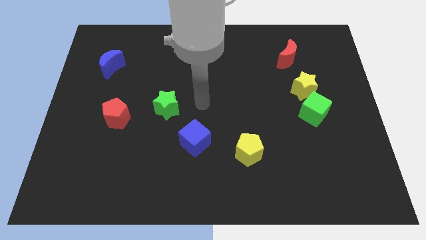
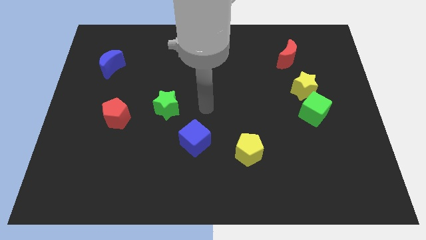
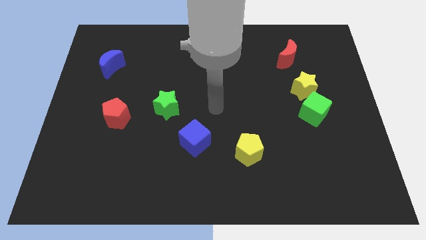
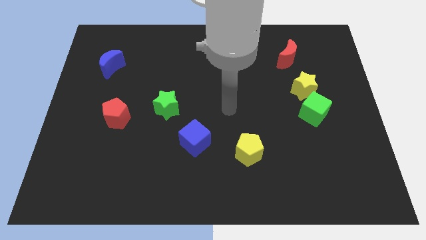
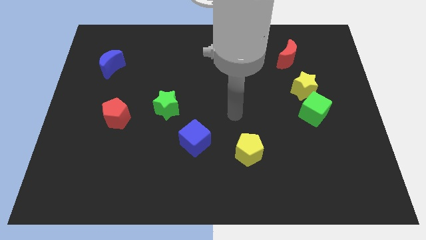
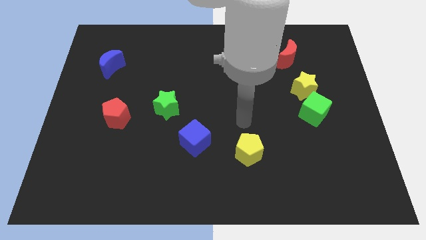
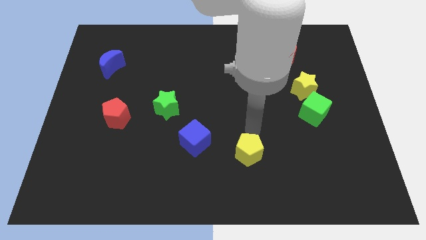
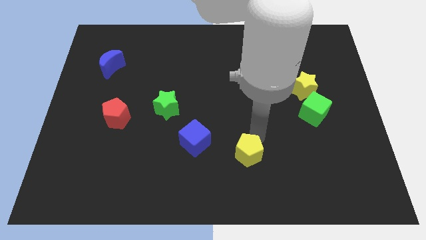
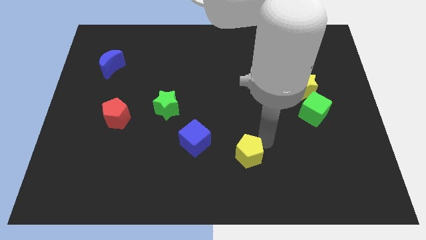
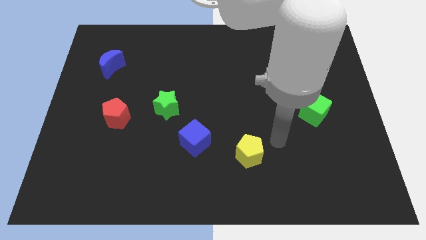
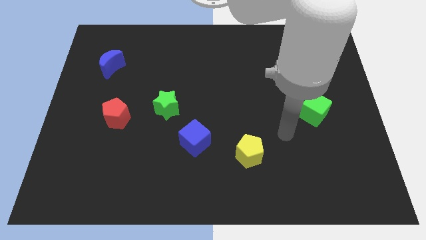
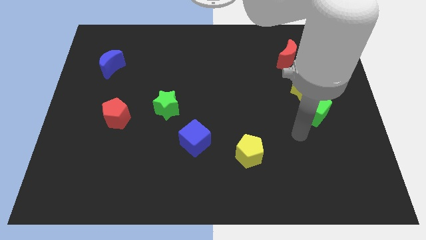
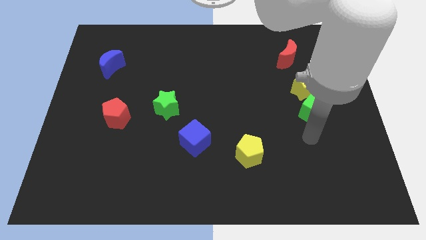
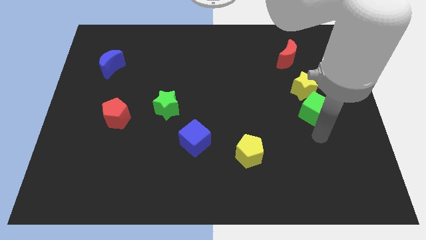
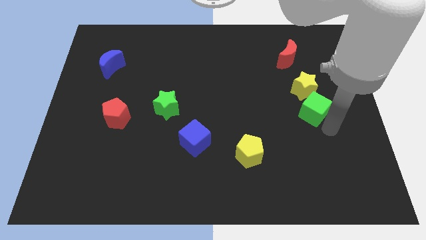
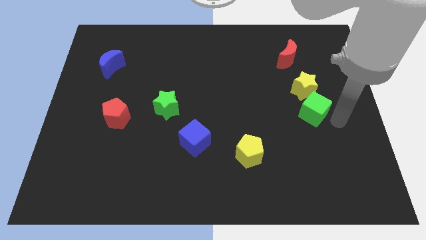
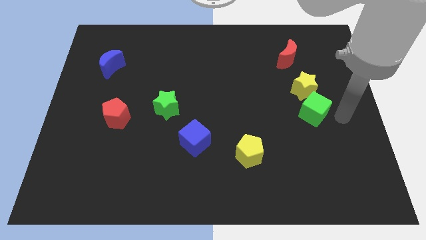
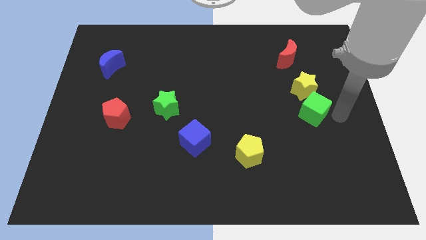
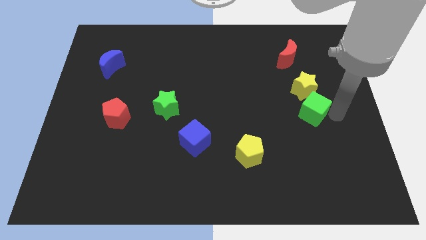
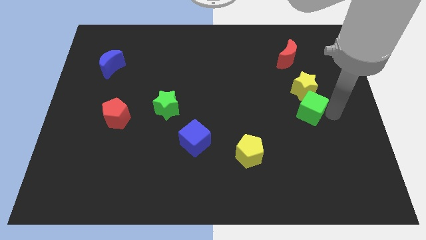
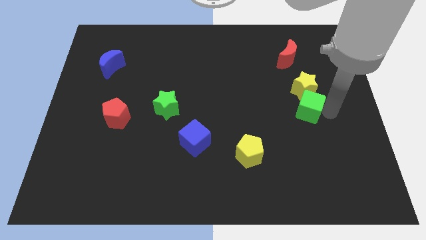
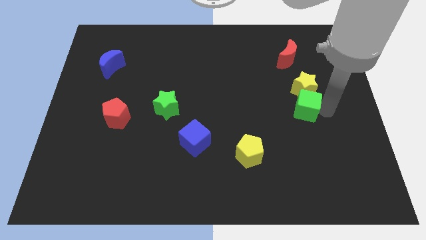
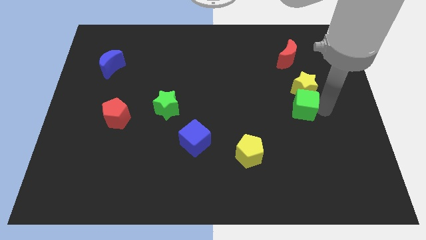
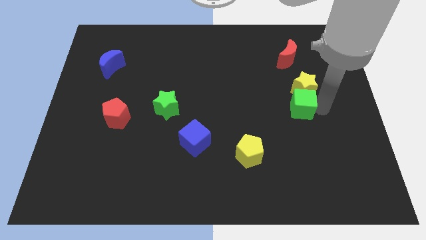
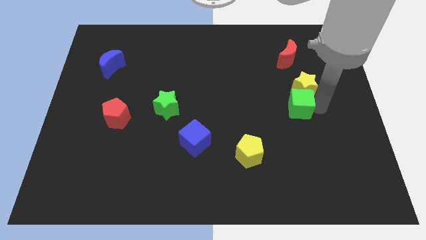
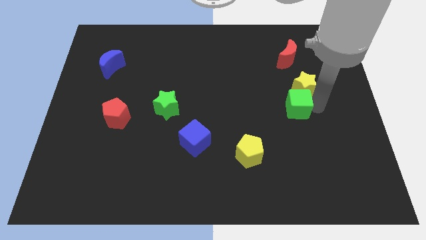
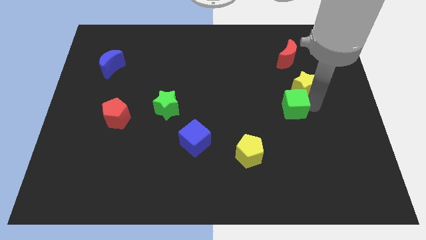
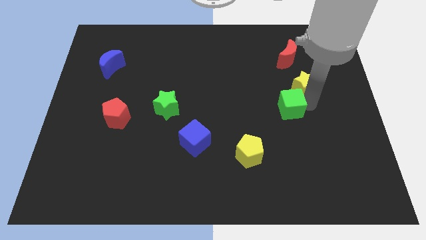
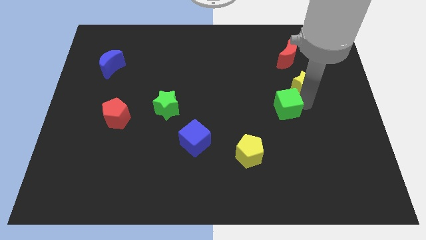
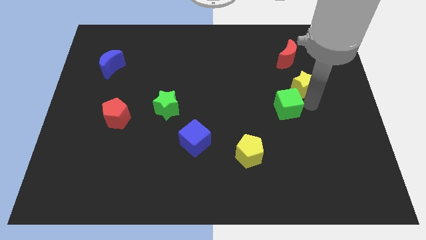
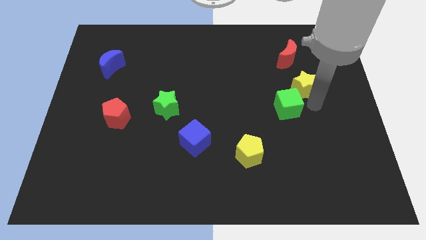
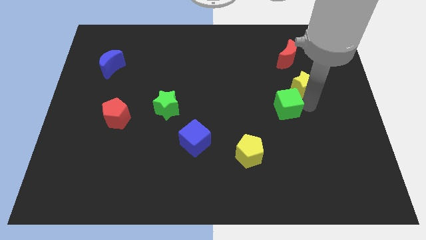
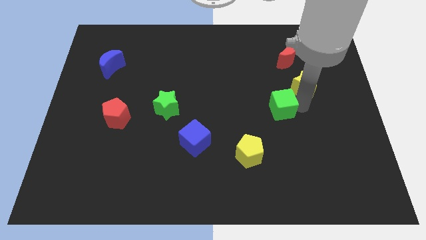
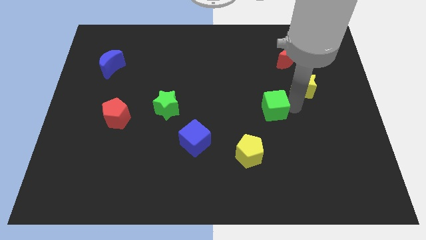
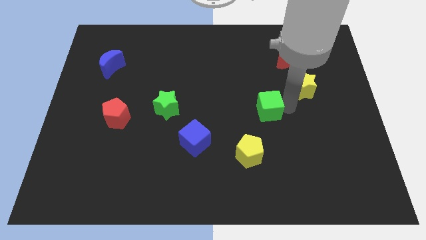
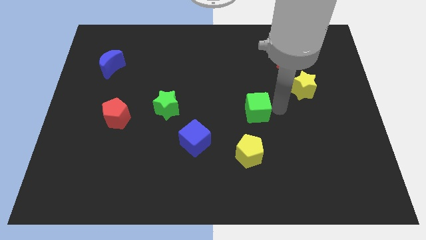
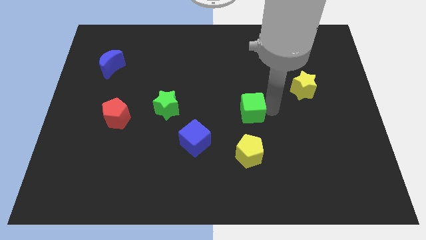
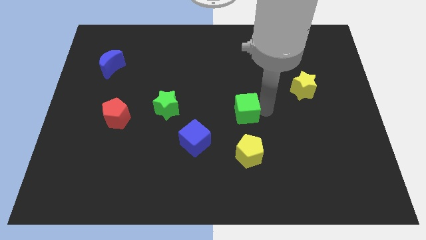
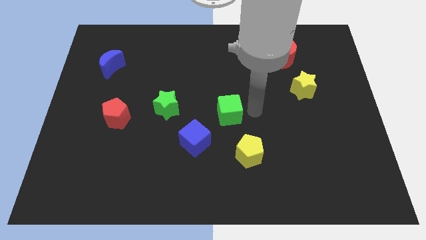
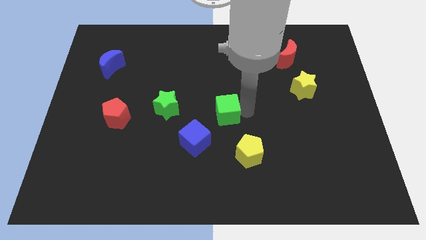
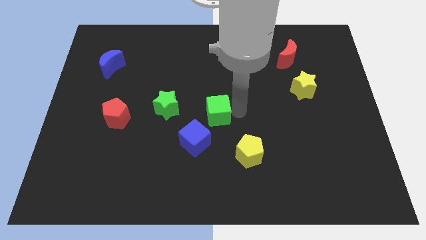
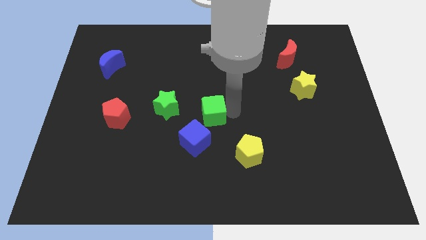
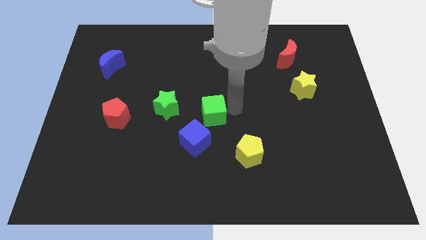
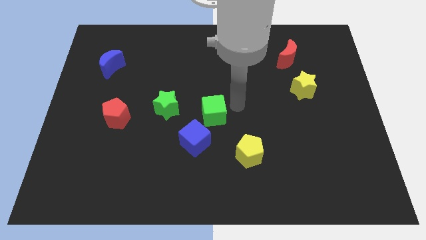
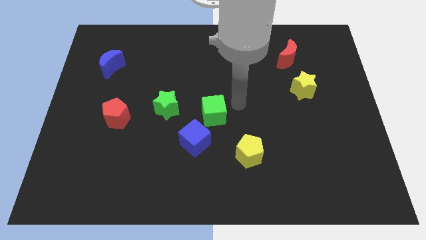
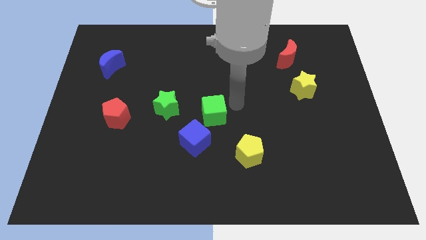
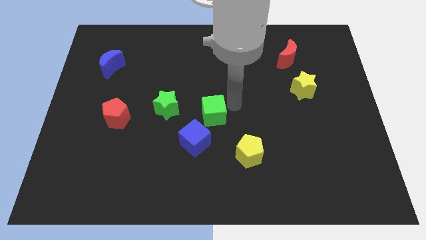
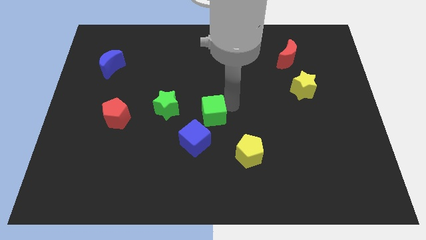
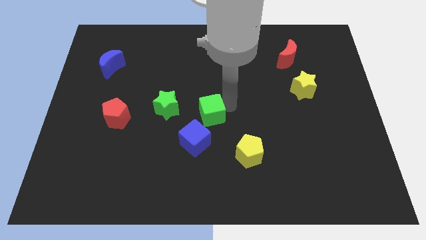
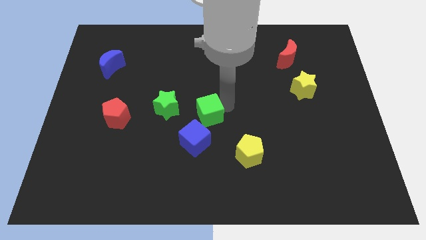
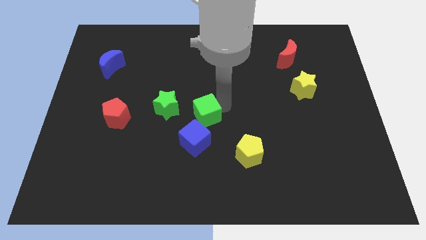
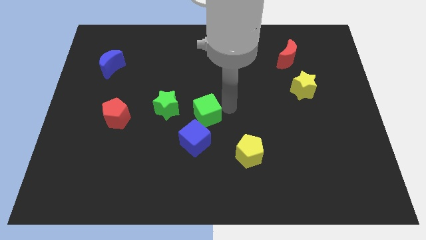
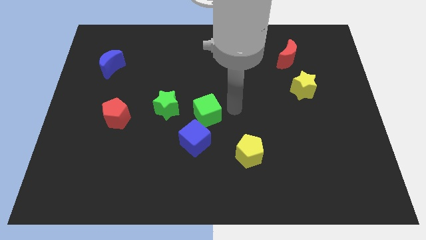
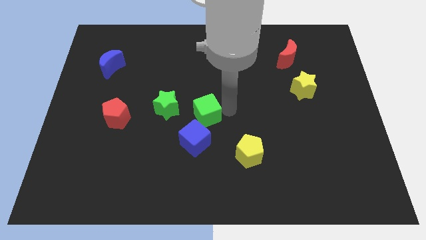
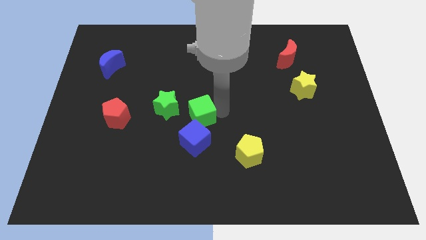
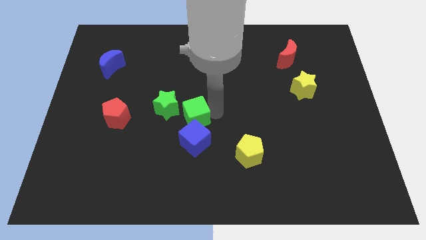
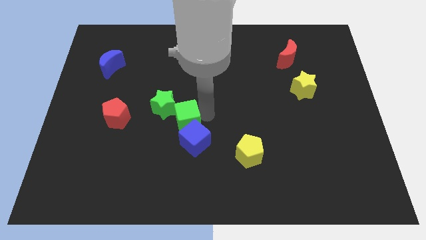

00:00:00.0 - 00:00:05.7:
move the green cube to the right of the red pentagon

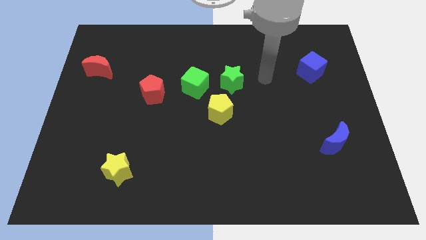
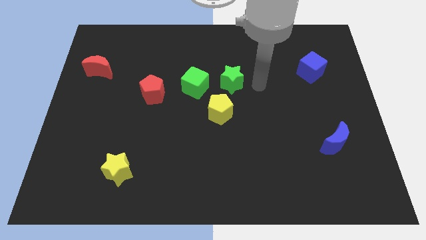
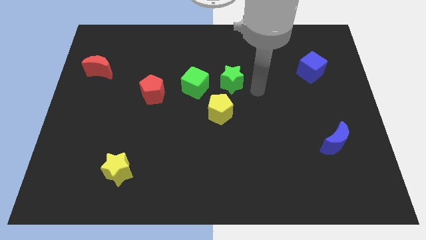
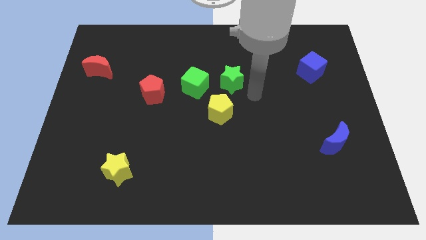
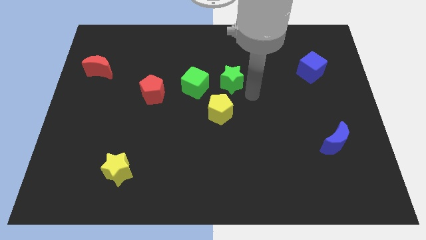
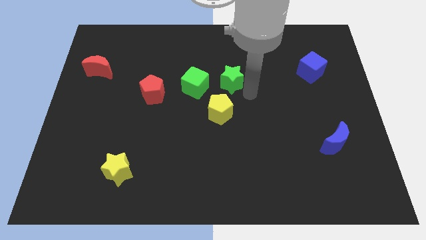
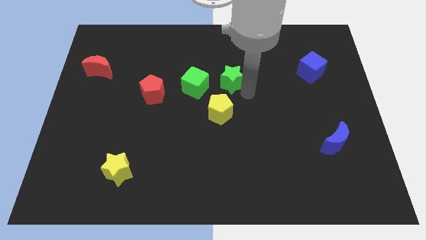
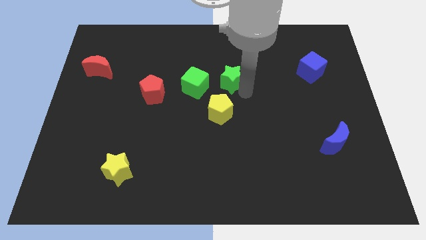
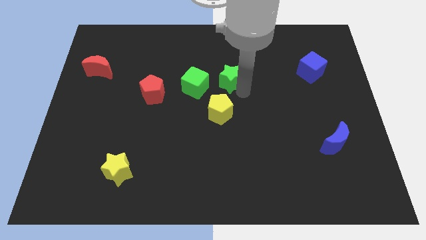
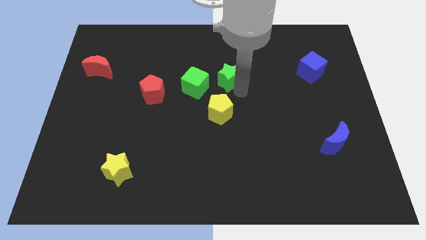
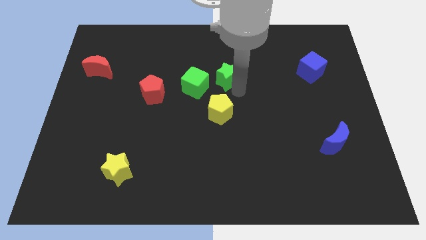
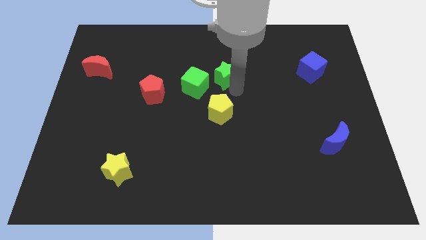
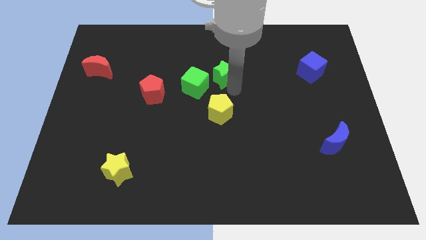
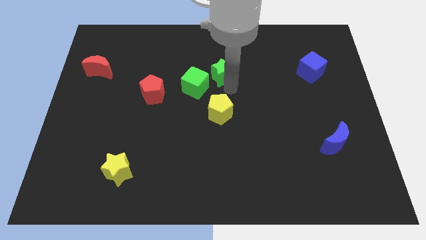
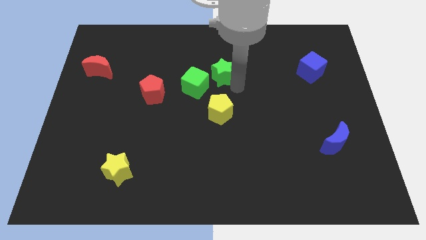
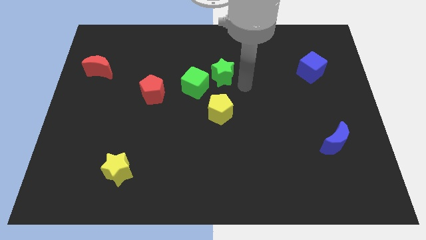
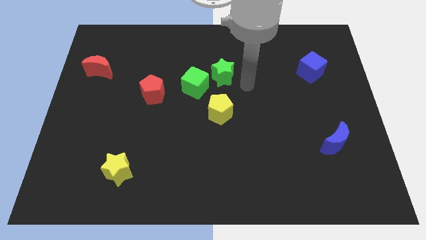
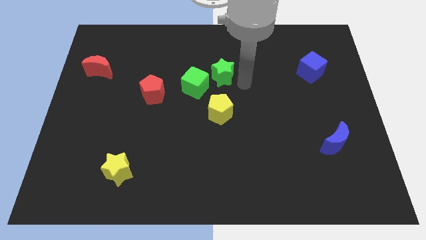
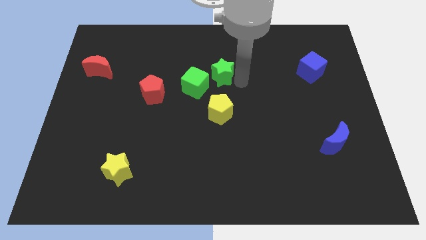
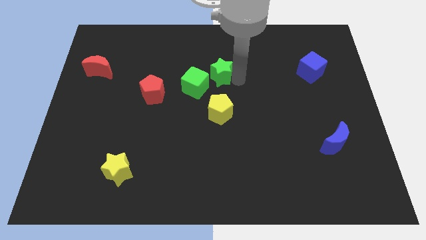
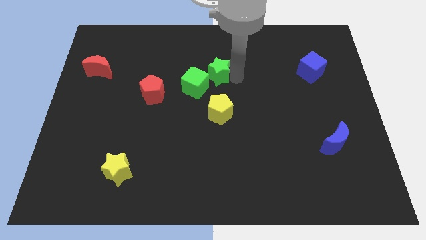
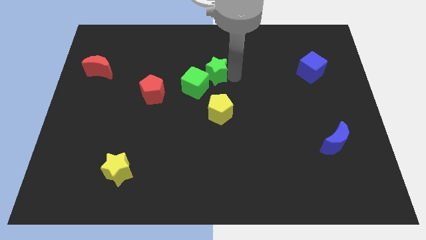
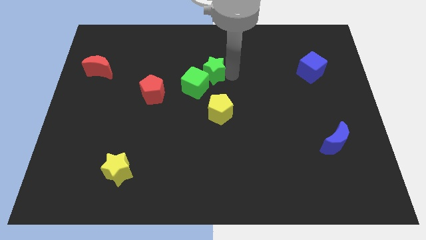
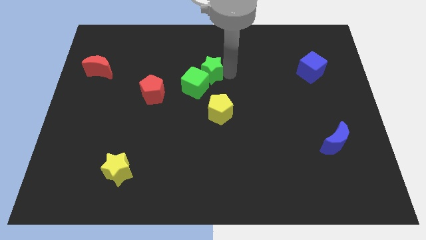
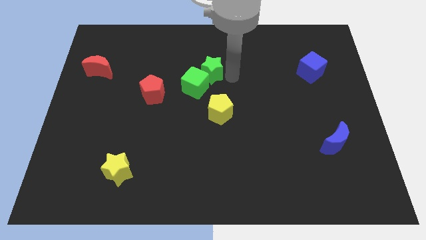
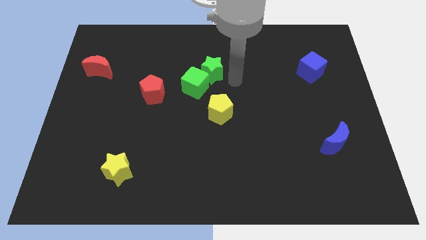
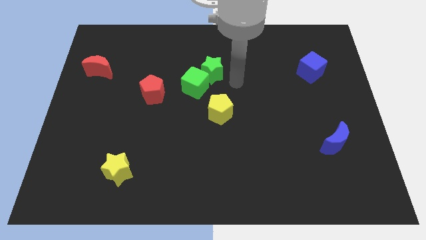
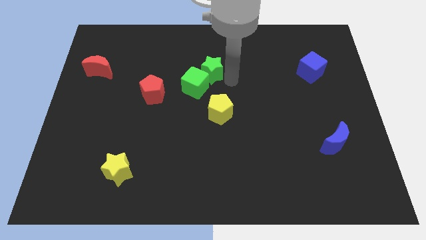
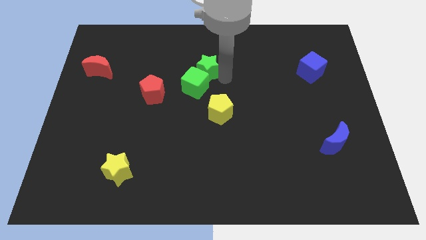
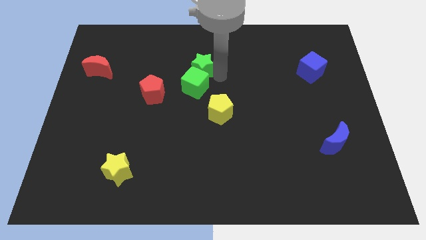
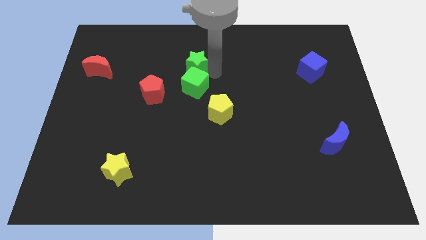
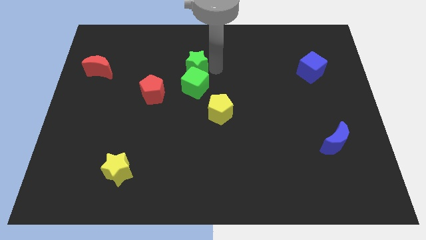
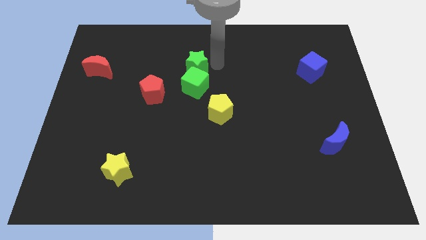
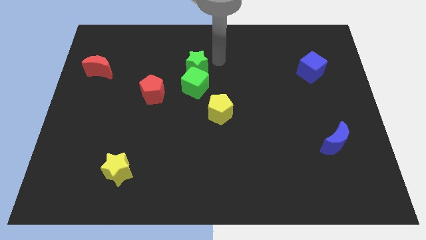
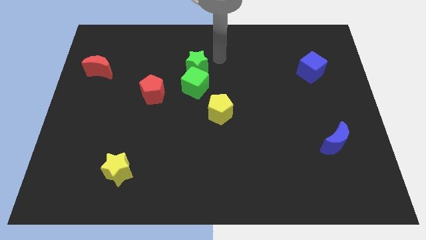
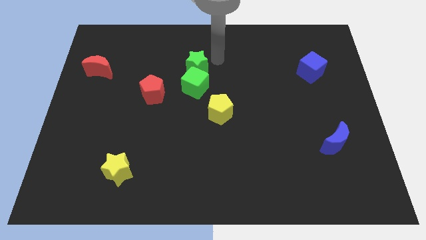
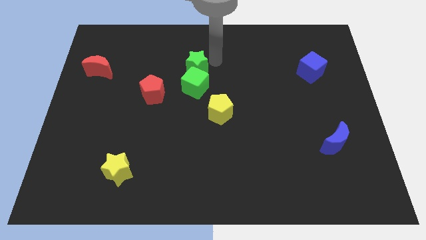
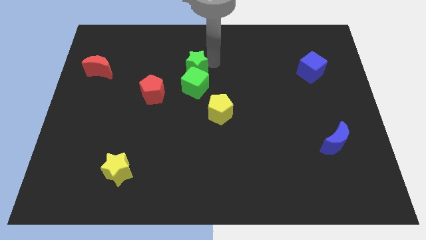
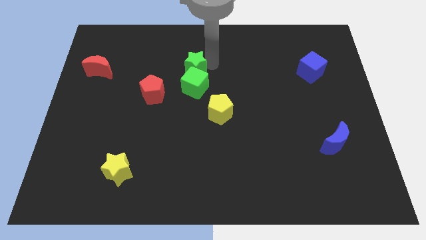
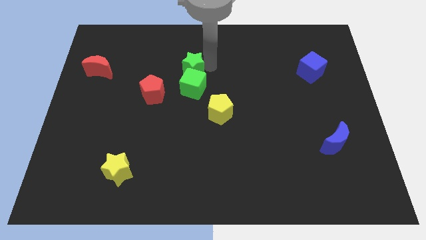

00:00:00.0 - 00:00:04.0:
move the green star to the top right of the red pentagon
